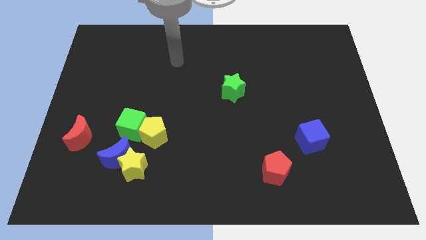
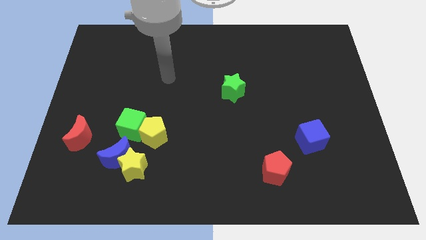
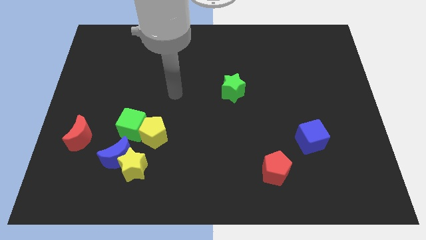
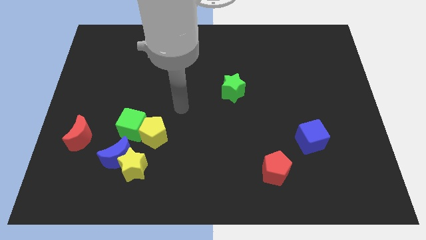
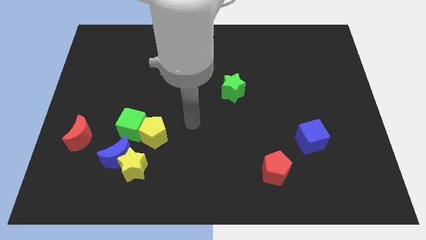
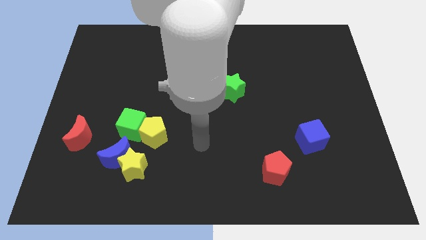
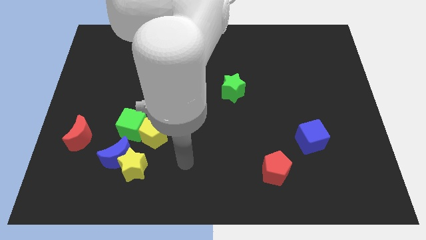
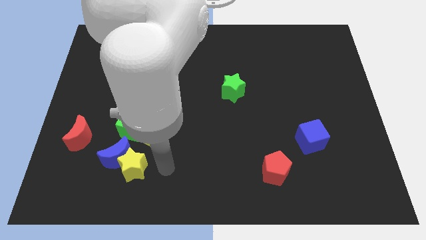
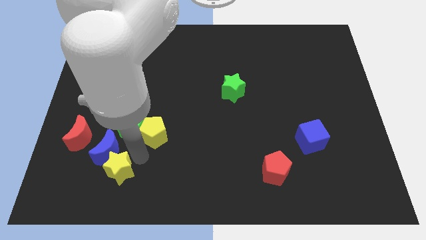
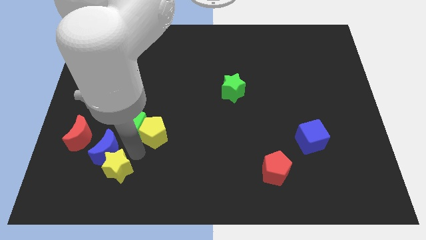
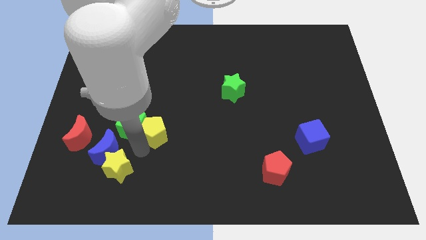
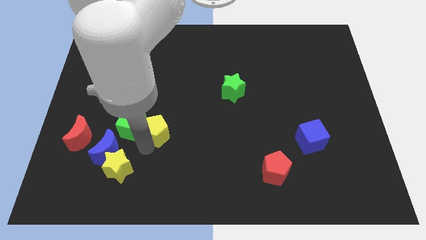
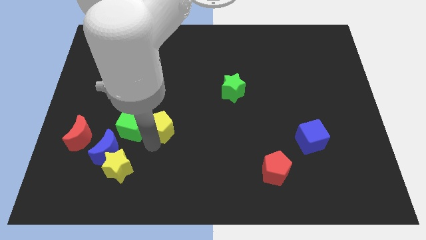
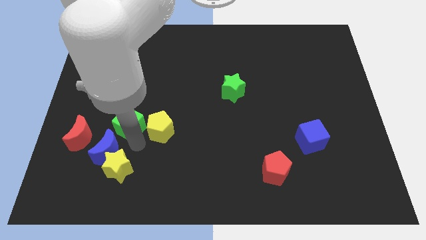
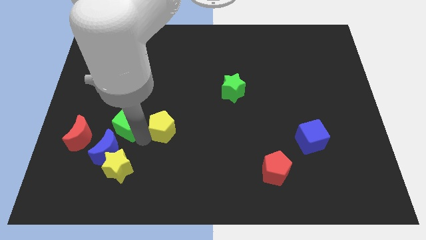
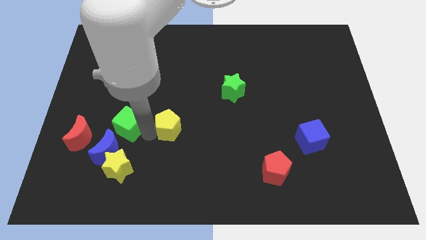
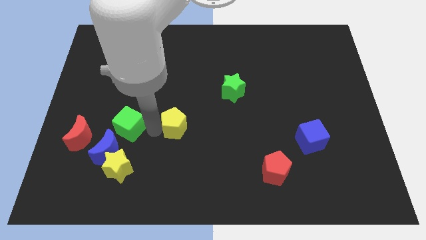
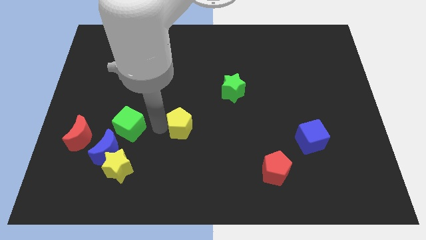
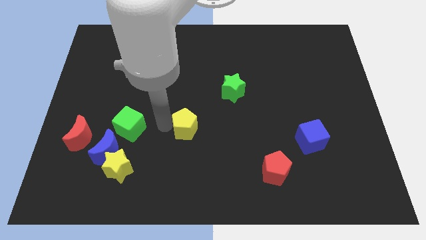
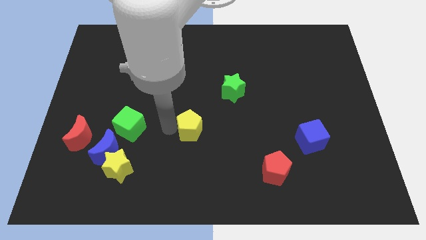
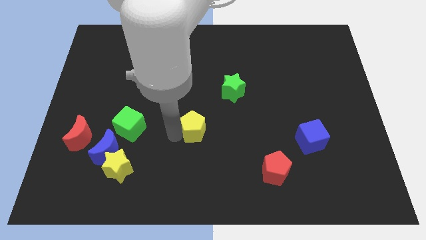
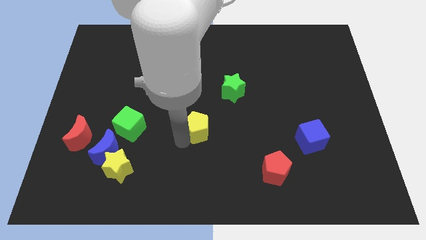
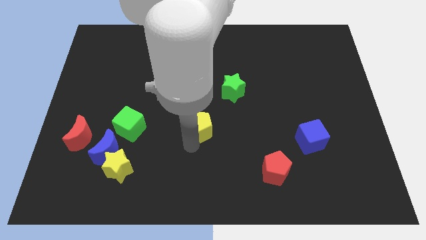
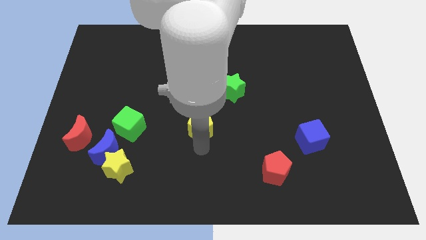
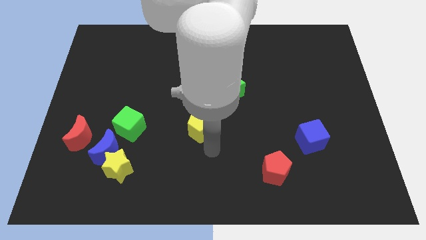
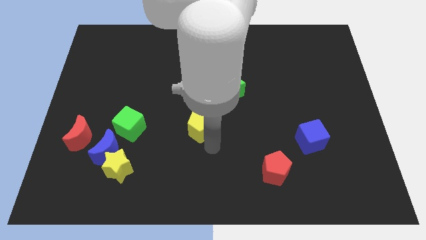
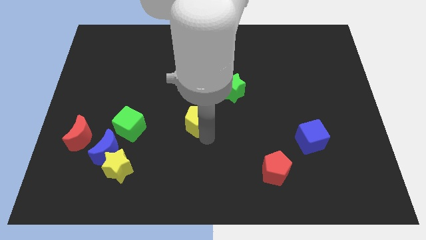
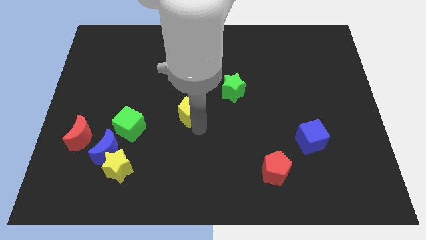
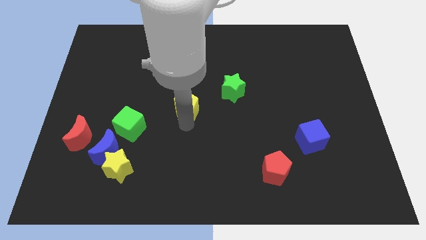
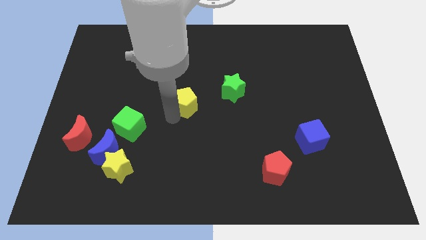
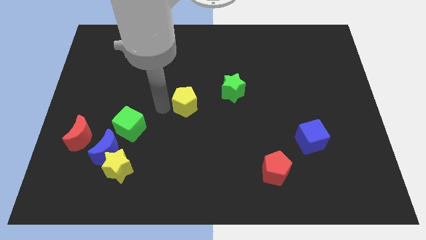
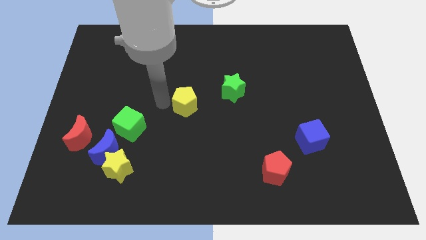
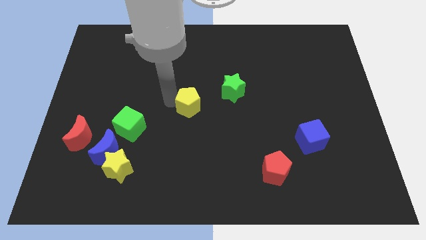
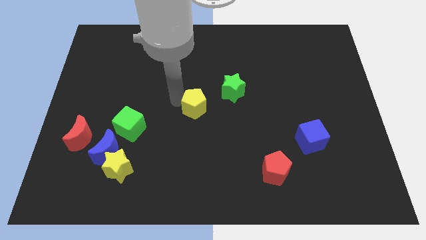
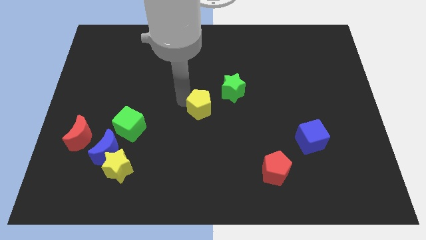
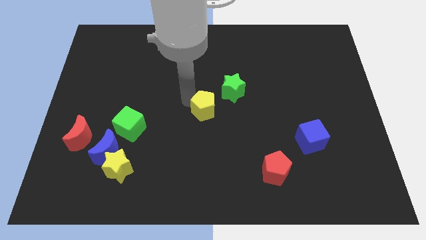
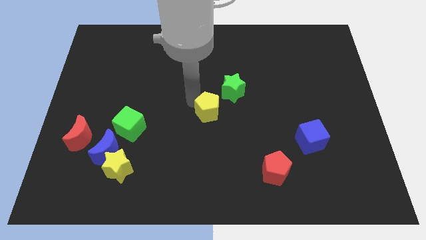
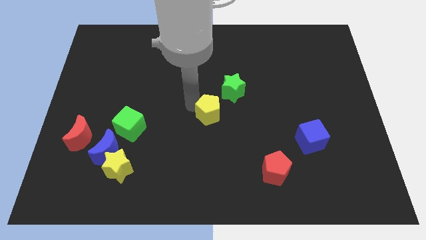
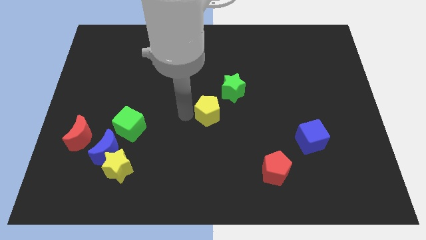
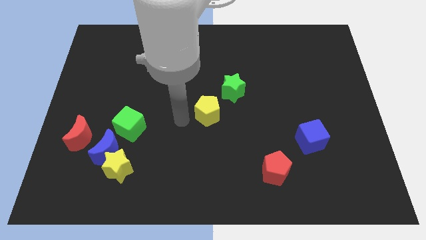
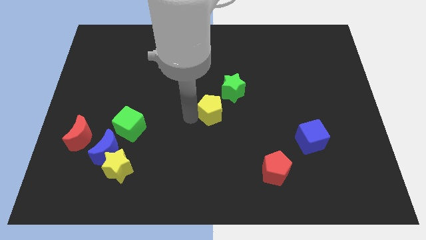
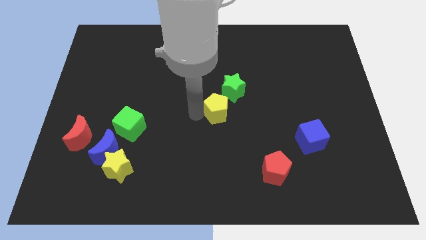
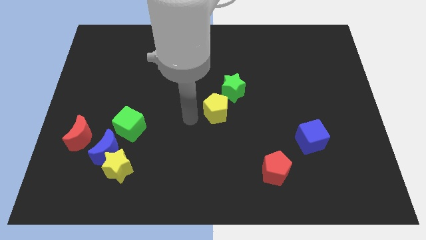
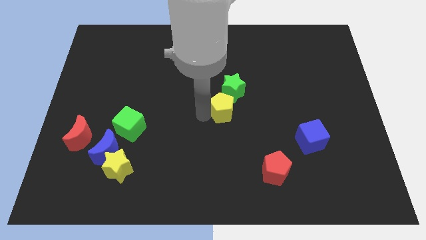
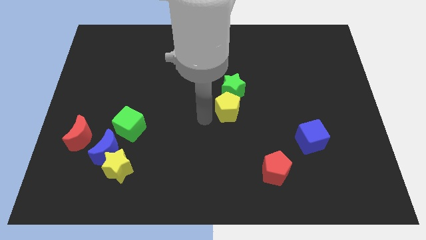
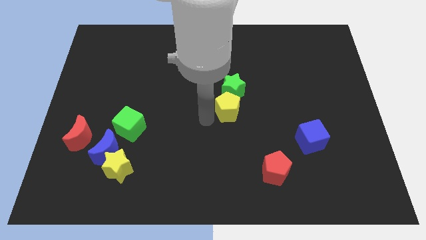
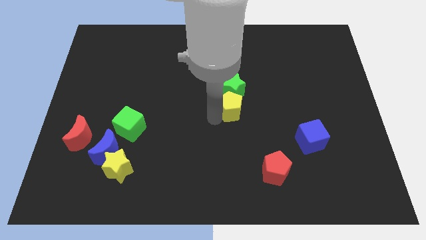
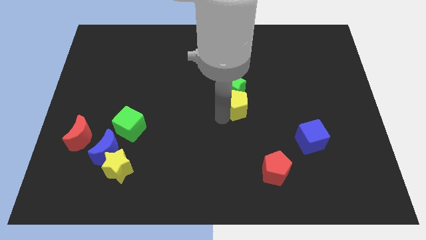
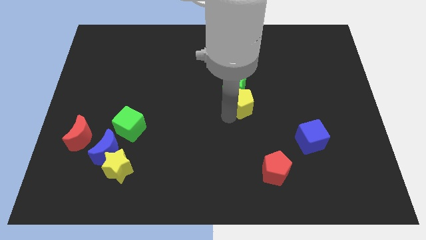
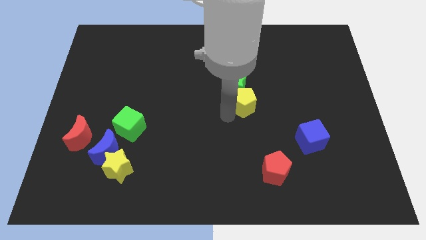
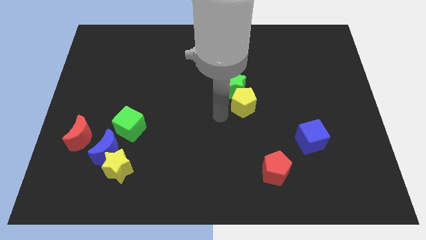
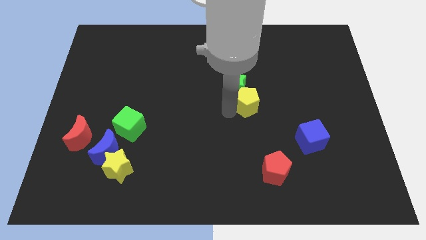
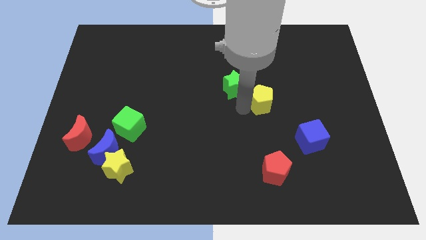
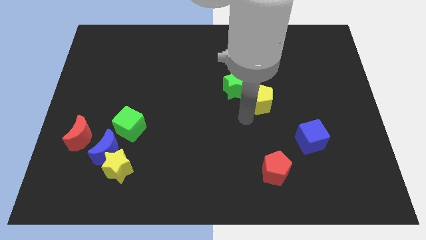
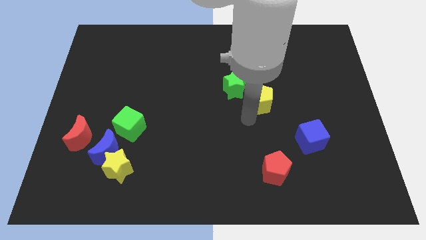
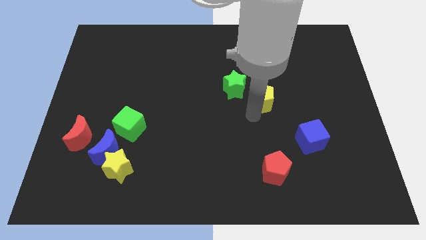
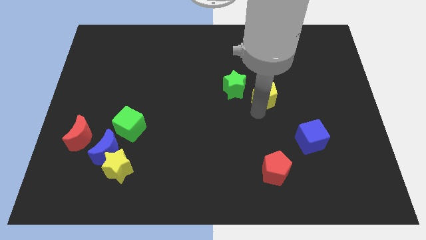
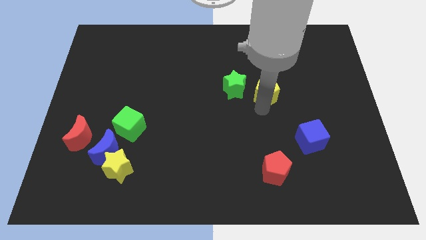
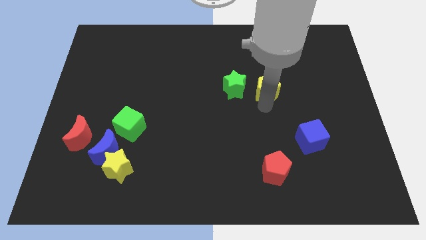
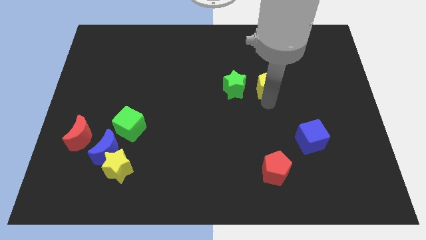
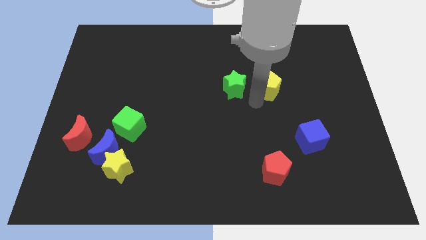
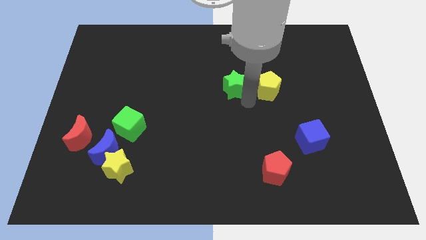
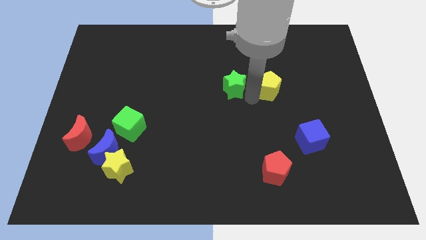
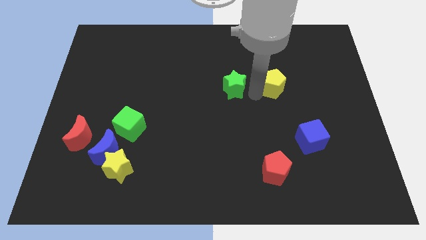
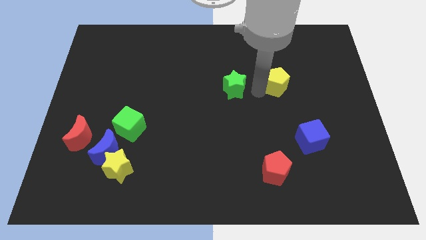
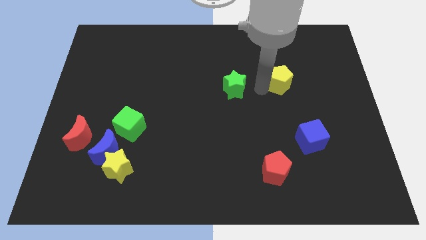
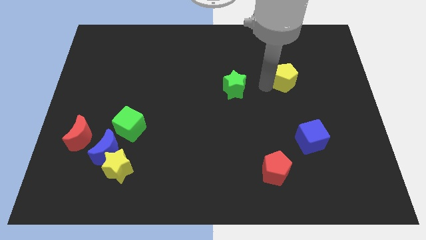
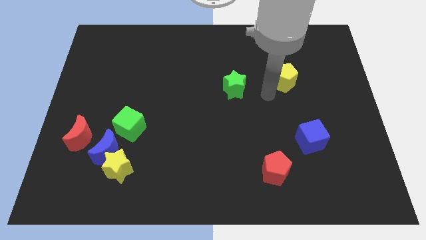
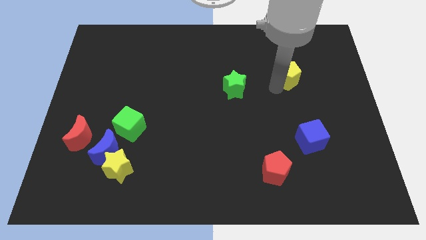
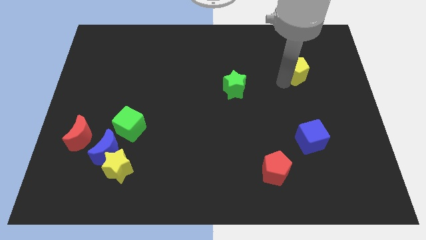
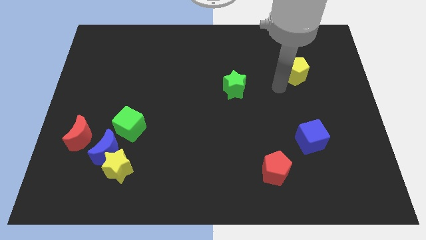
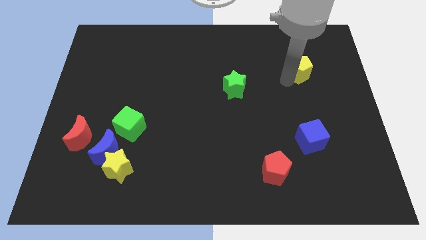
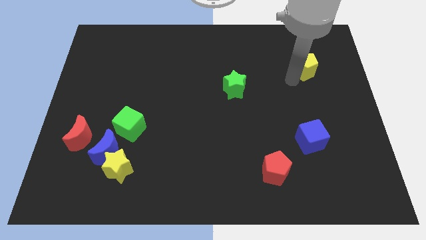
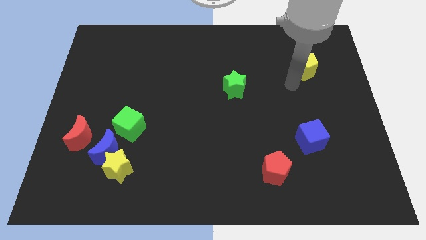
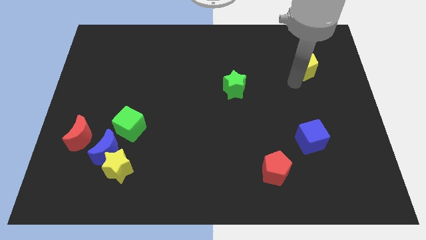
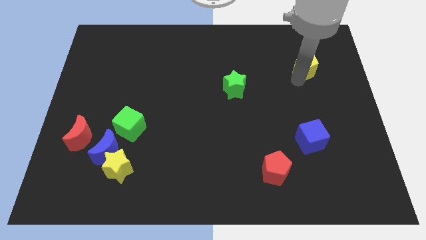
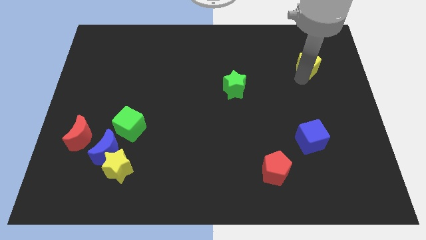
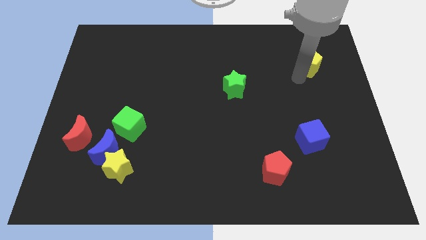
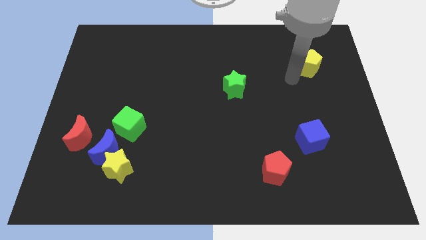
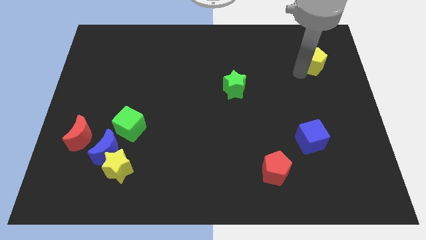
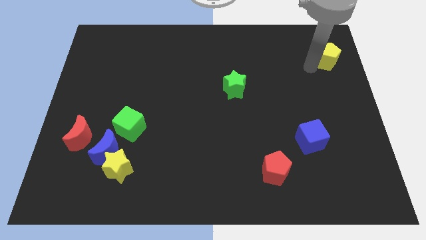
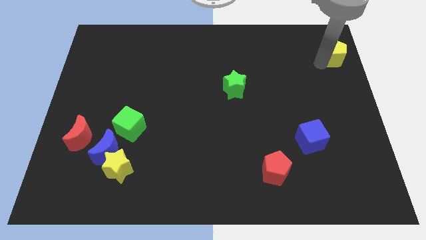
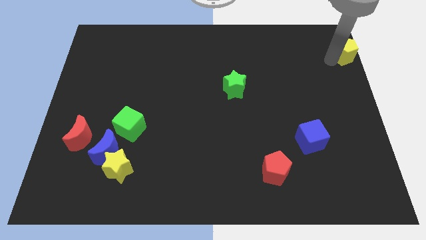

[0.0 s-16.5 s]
push the yellow pentagon to the top right corner
